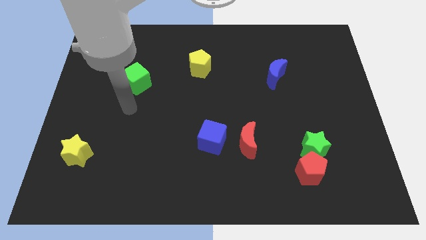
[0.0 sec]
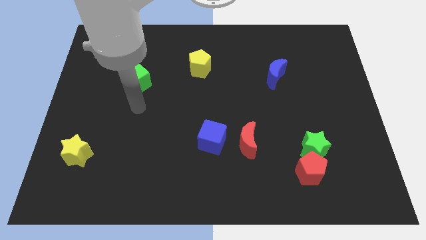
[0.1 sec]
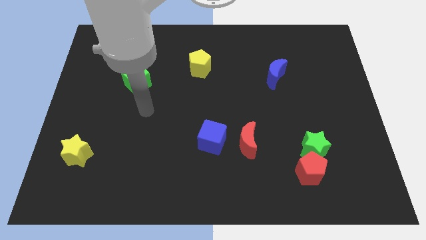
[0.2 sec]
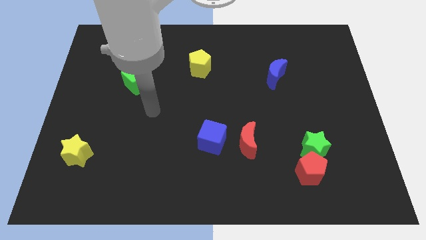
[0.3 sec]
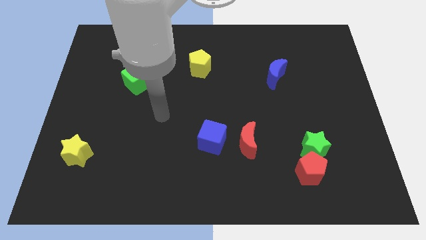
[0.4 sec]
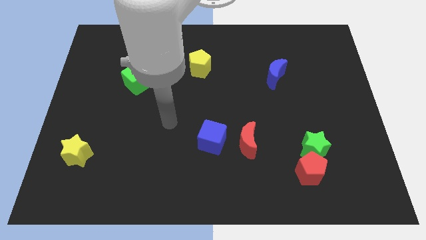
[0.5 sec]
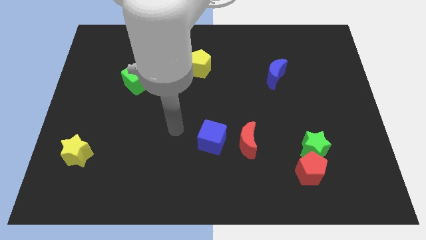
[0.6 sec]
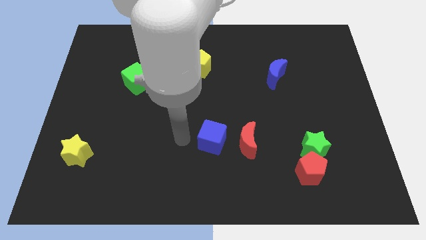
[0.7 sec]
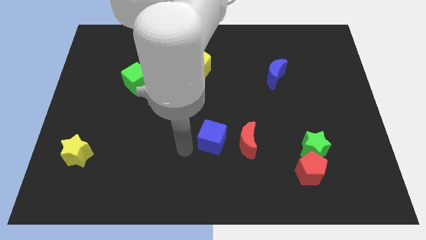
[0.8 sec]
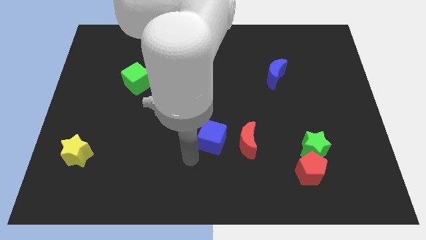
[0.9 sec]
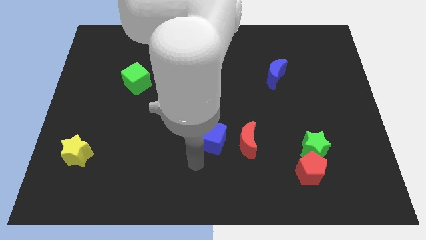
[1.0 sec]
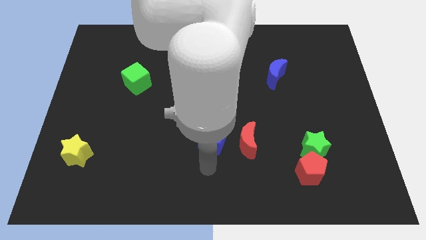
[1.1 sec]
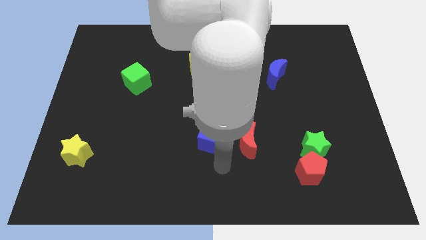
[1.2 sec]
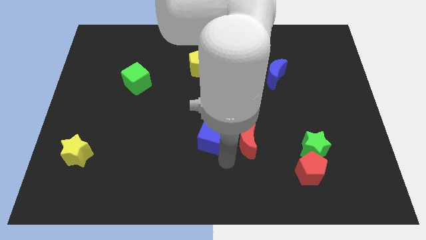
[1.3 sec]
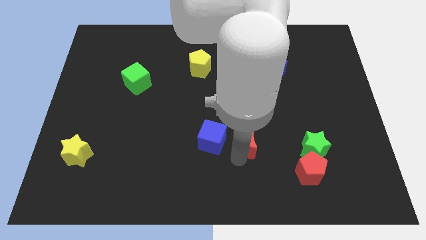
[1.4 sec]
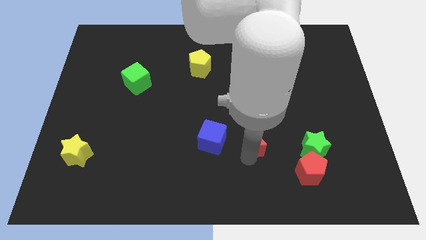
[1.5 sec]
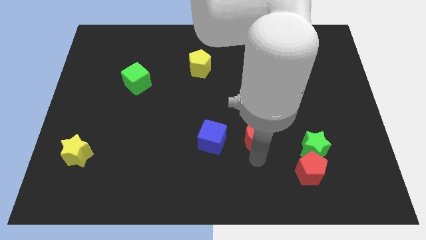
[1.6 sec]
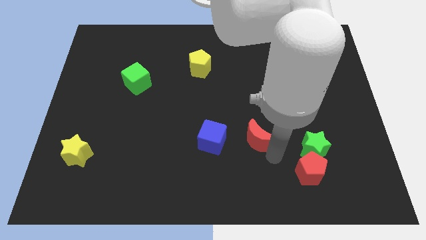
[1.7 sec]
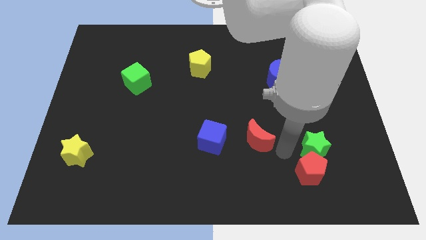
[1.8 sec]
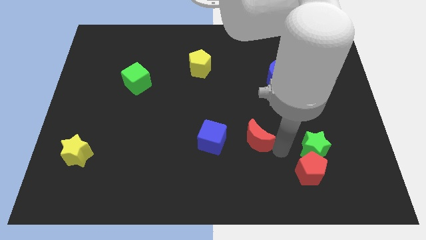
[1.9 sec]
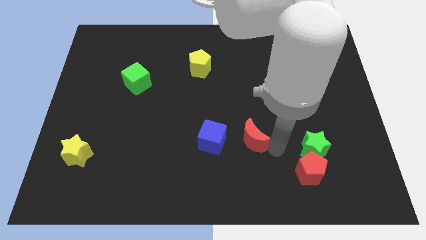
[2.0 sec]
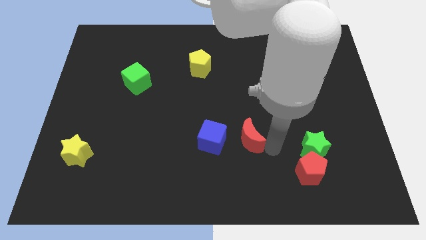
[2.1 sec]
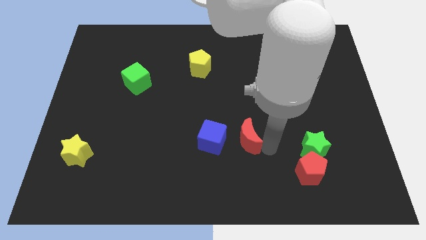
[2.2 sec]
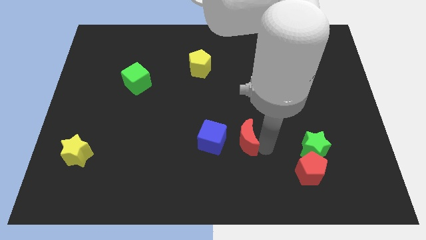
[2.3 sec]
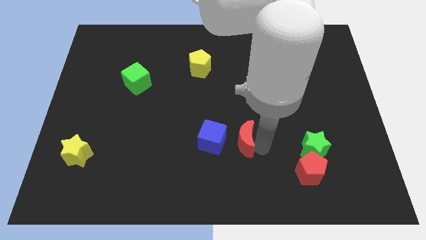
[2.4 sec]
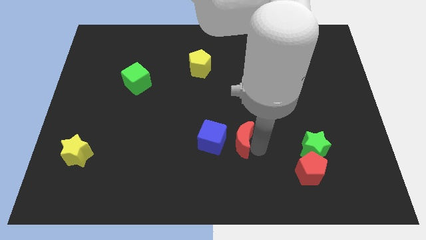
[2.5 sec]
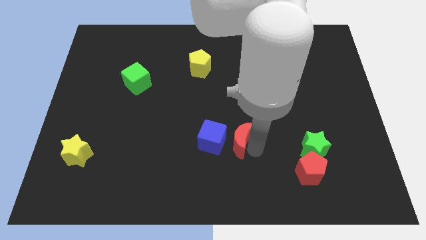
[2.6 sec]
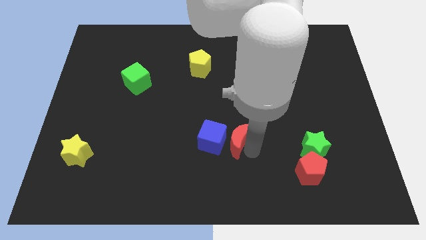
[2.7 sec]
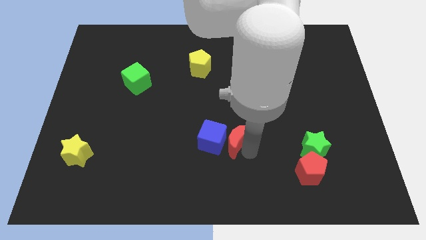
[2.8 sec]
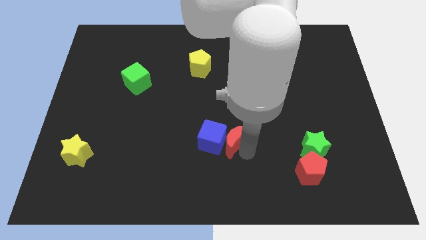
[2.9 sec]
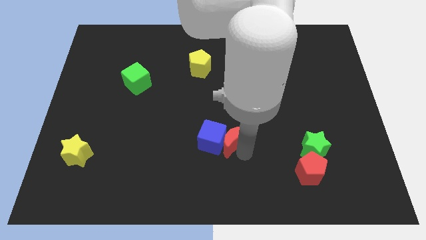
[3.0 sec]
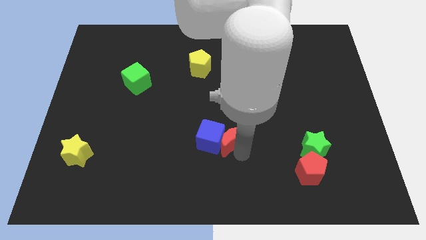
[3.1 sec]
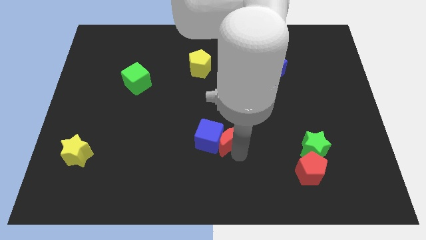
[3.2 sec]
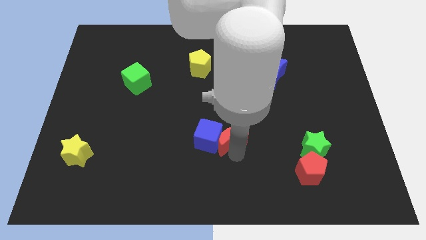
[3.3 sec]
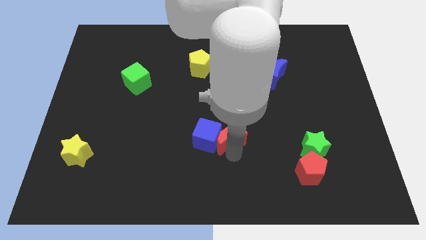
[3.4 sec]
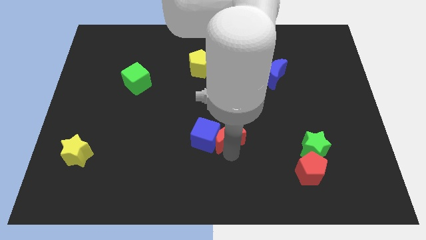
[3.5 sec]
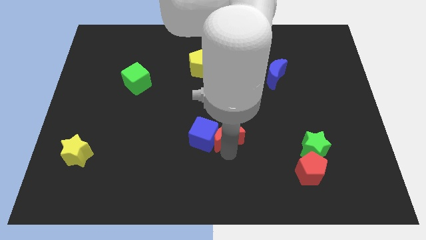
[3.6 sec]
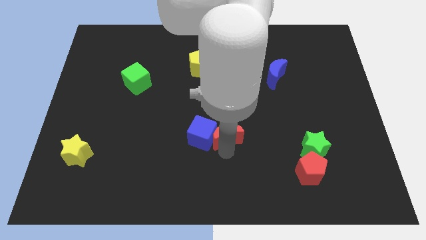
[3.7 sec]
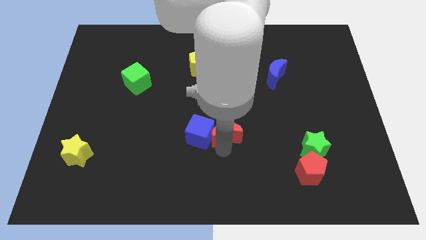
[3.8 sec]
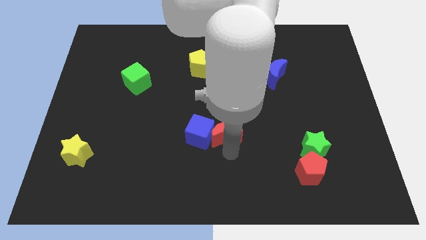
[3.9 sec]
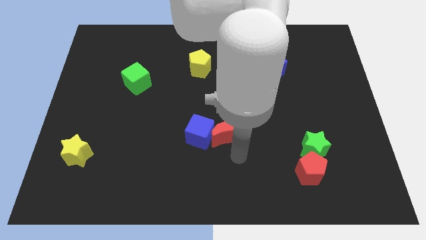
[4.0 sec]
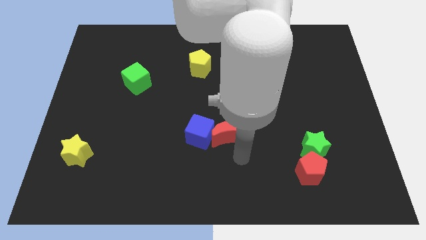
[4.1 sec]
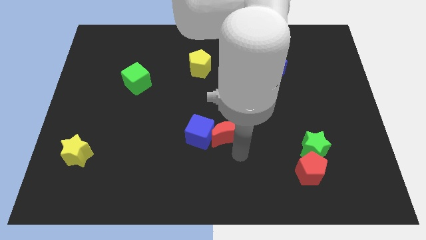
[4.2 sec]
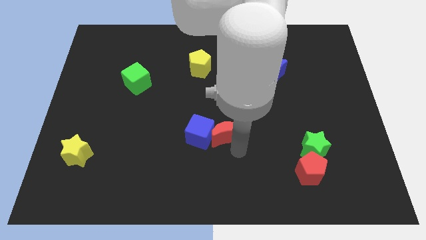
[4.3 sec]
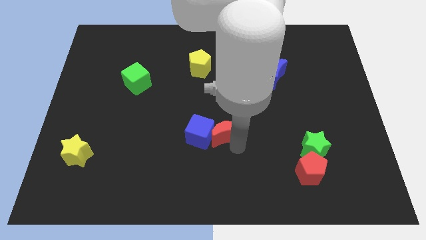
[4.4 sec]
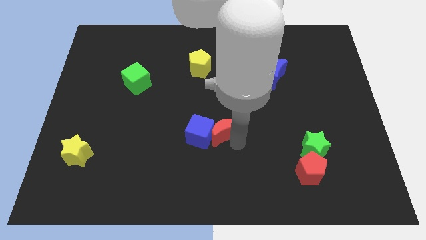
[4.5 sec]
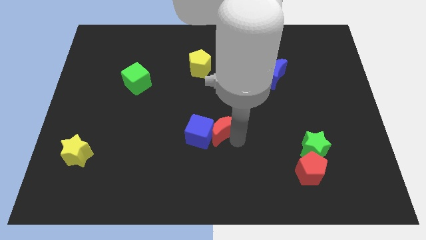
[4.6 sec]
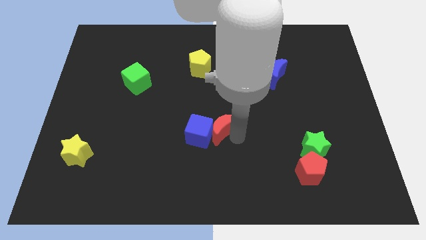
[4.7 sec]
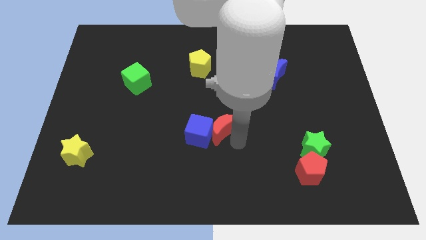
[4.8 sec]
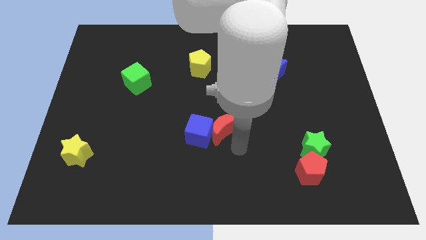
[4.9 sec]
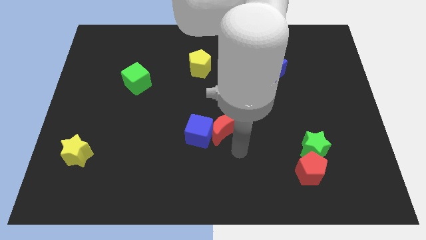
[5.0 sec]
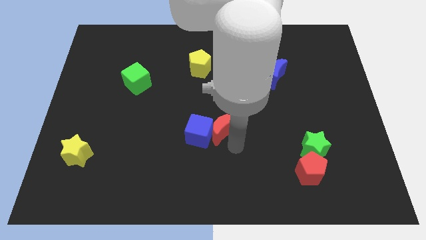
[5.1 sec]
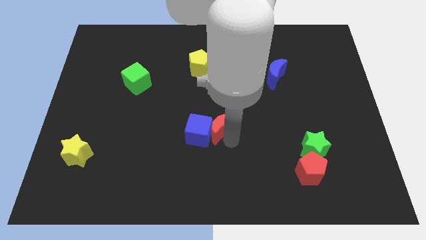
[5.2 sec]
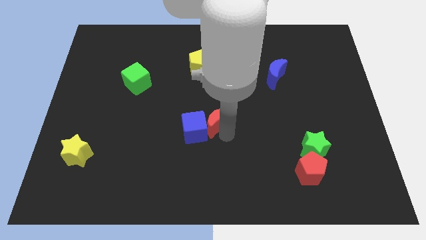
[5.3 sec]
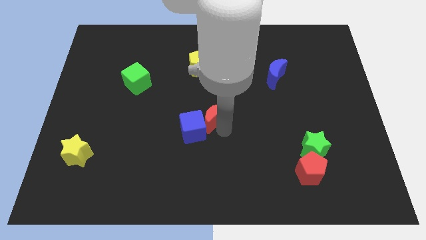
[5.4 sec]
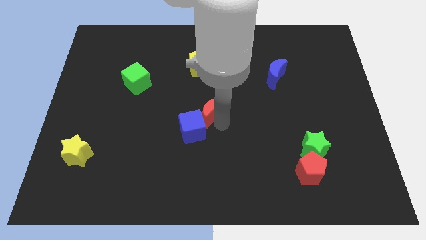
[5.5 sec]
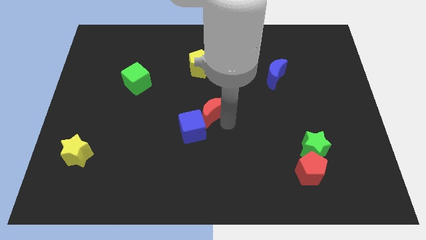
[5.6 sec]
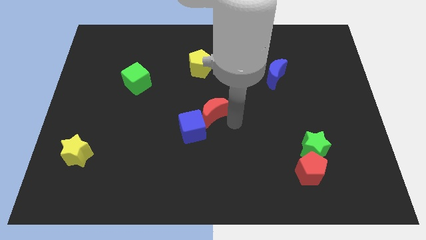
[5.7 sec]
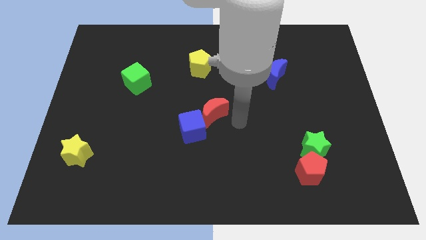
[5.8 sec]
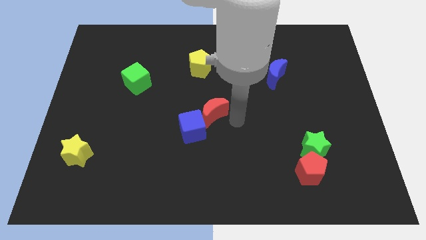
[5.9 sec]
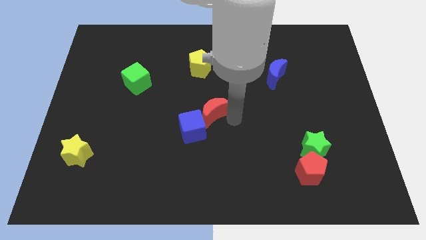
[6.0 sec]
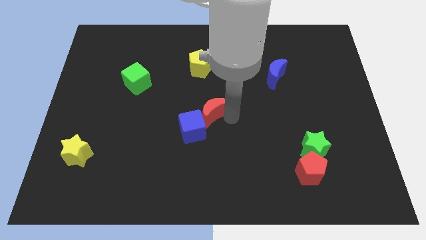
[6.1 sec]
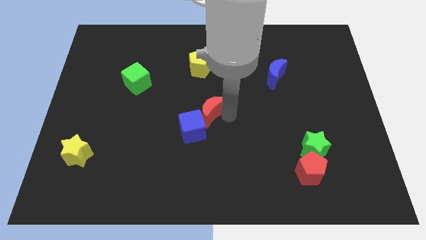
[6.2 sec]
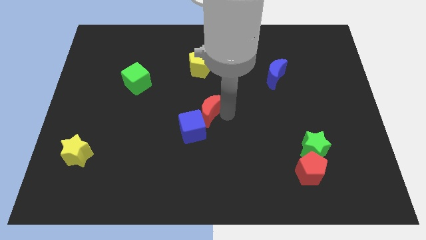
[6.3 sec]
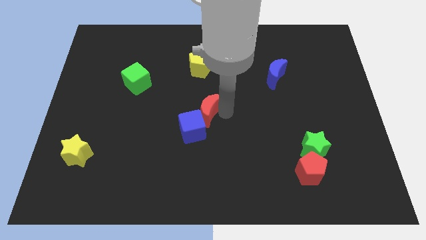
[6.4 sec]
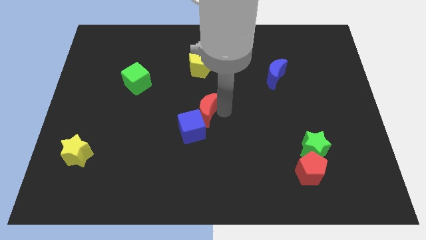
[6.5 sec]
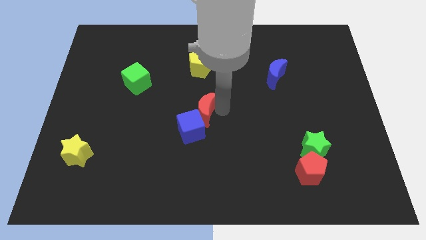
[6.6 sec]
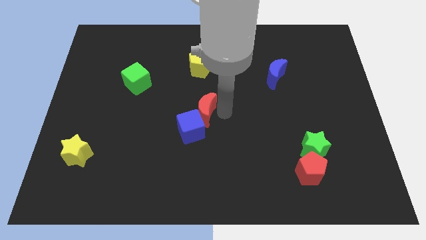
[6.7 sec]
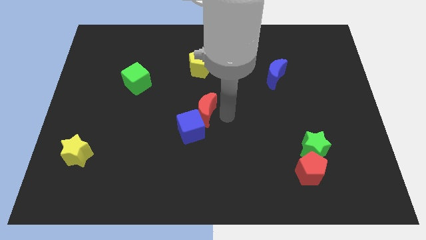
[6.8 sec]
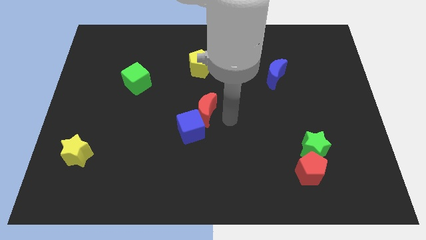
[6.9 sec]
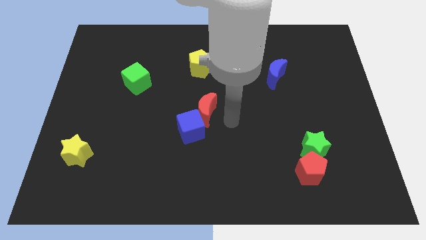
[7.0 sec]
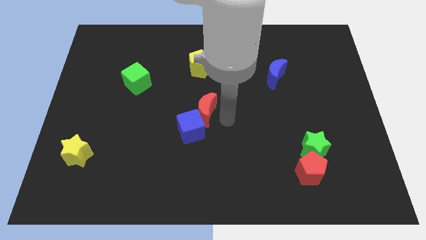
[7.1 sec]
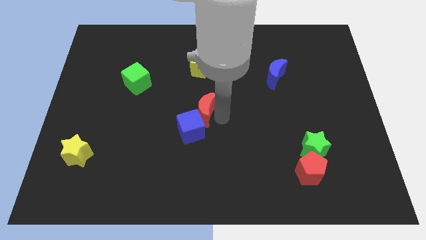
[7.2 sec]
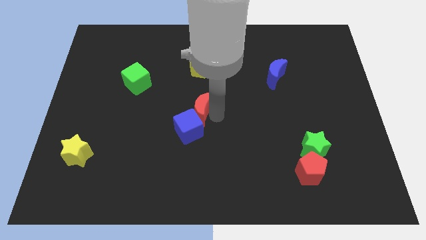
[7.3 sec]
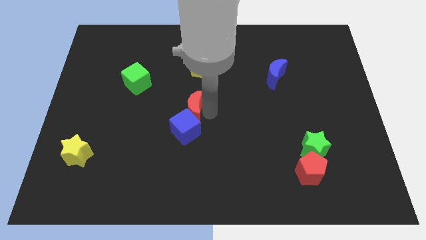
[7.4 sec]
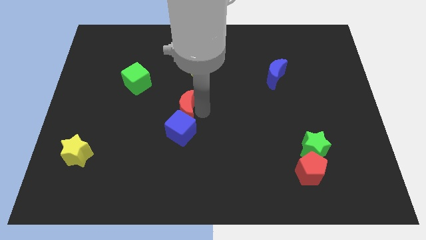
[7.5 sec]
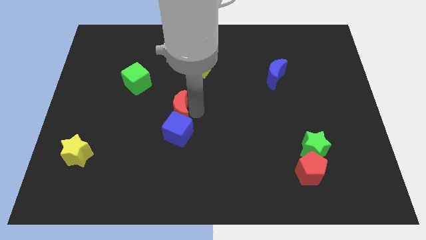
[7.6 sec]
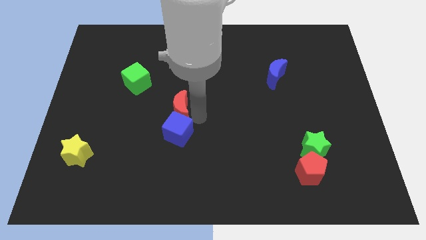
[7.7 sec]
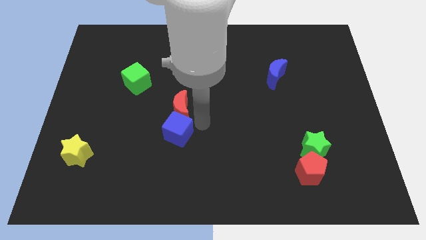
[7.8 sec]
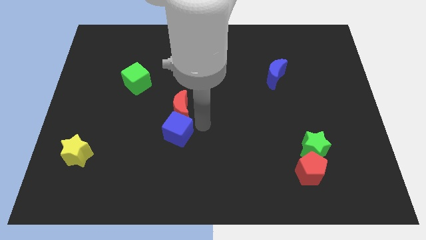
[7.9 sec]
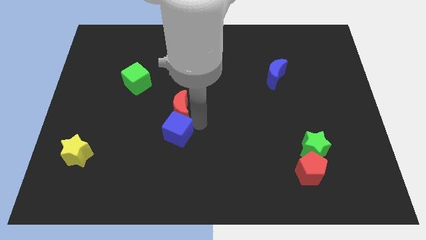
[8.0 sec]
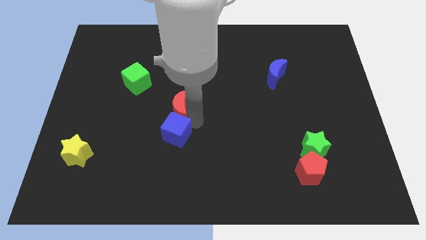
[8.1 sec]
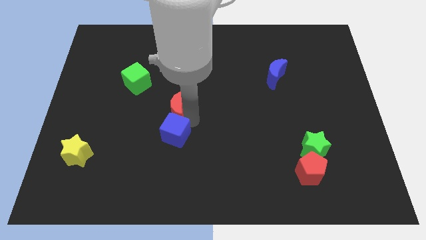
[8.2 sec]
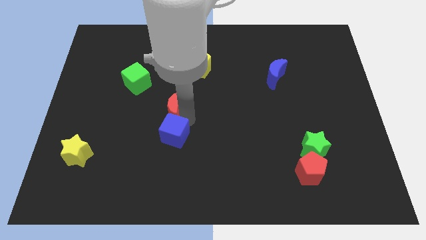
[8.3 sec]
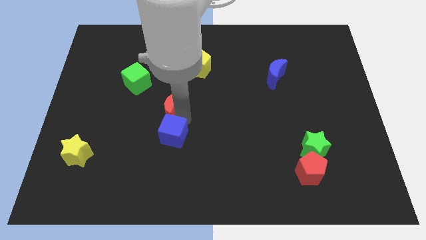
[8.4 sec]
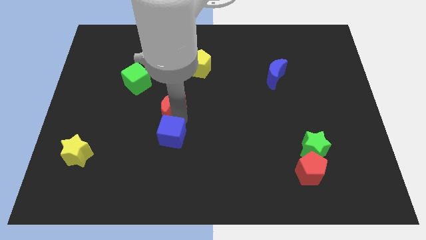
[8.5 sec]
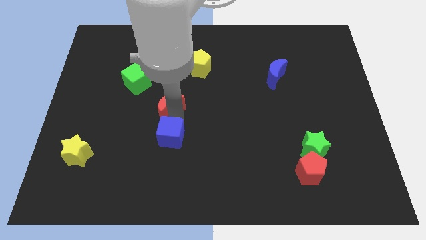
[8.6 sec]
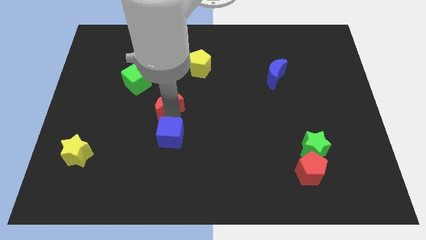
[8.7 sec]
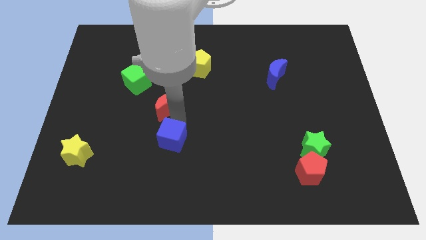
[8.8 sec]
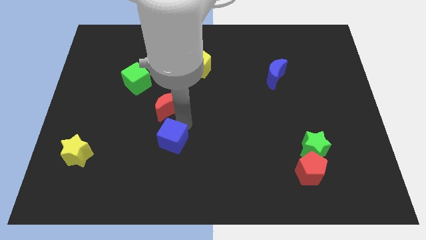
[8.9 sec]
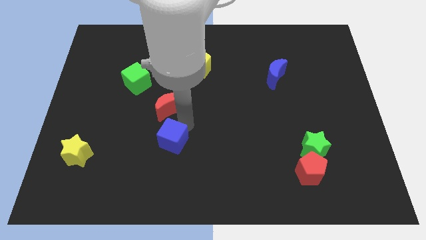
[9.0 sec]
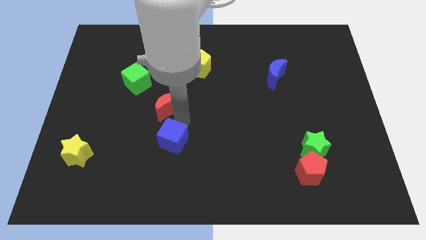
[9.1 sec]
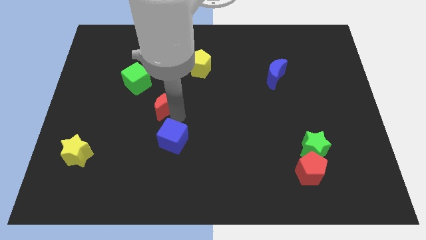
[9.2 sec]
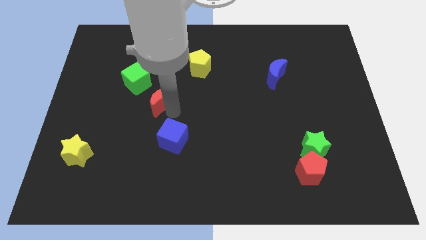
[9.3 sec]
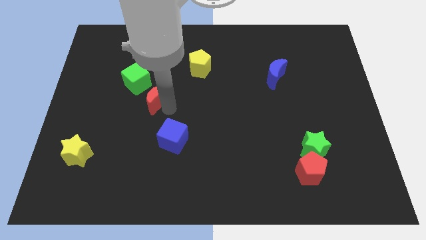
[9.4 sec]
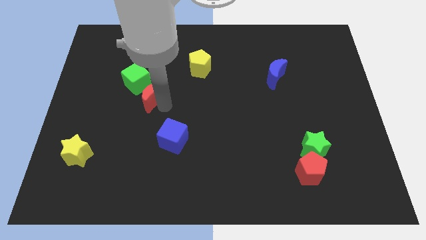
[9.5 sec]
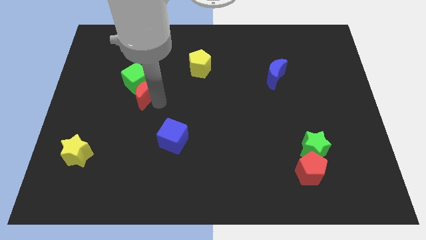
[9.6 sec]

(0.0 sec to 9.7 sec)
slide the red moon to the green cube
